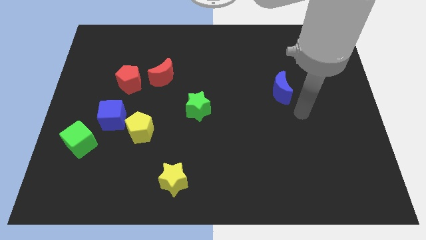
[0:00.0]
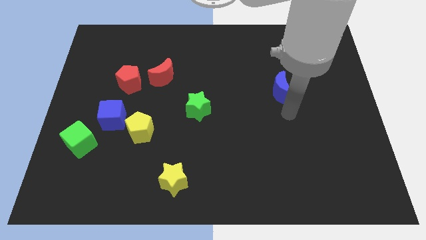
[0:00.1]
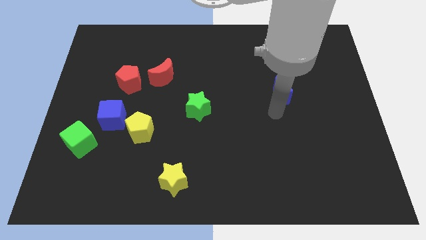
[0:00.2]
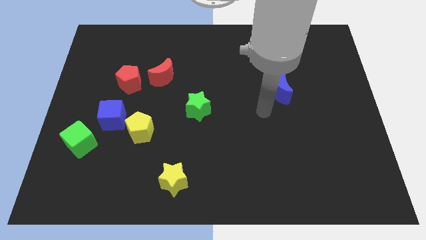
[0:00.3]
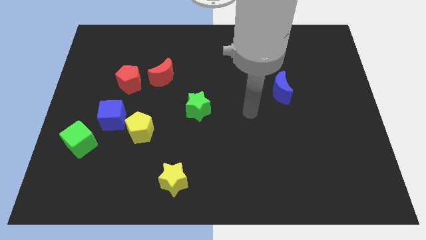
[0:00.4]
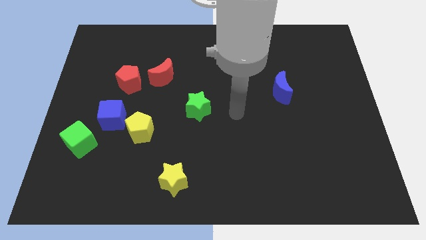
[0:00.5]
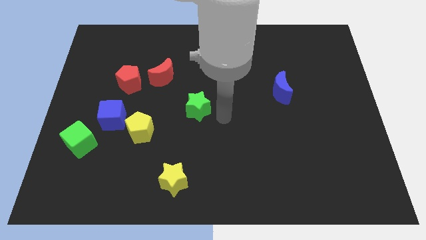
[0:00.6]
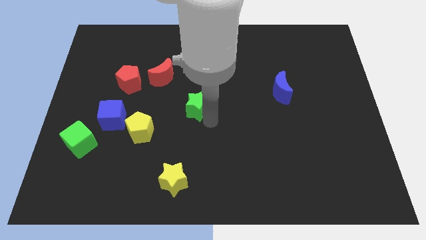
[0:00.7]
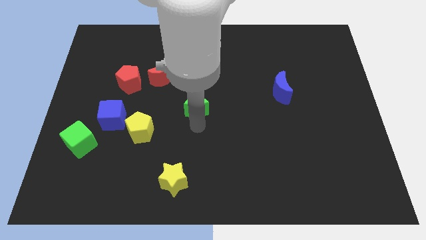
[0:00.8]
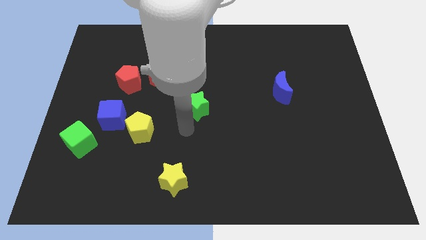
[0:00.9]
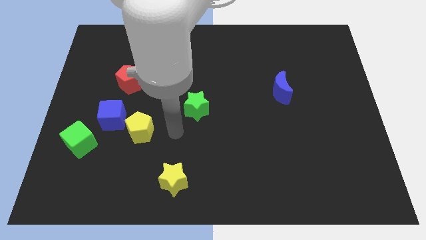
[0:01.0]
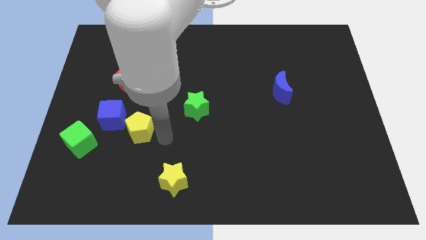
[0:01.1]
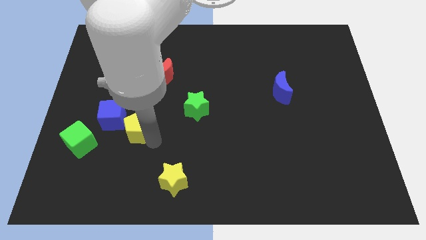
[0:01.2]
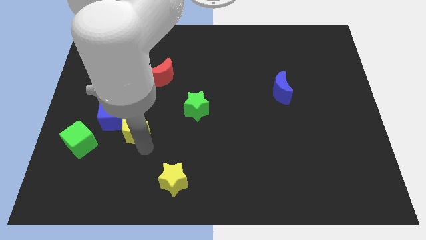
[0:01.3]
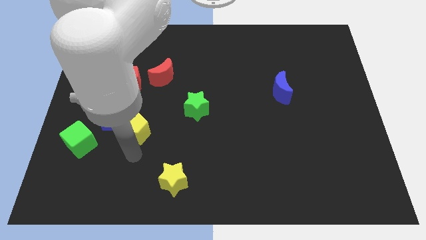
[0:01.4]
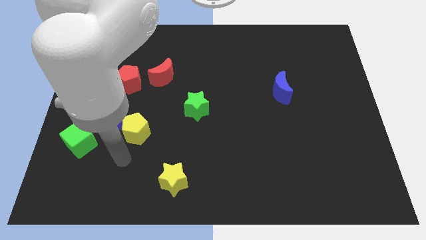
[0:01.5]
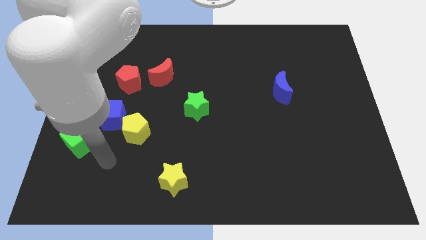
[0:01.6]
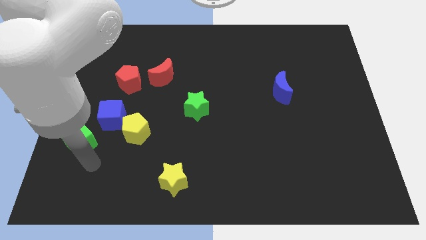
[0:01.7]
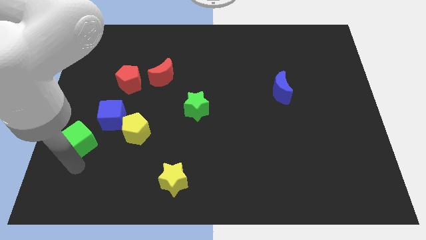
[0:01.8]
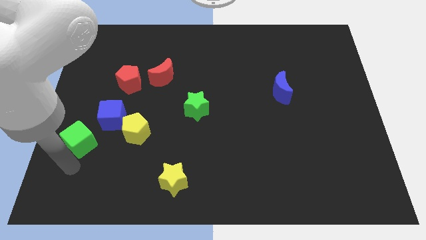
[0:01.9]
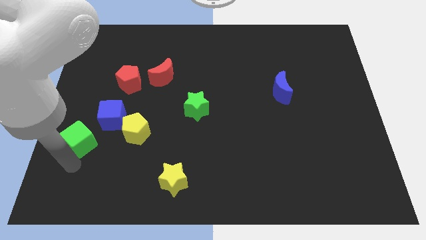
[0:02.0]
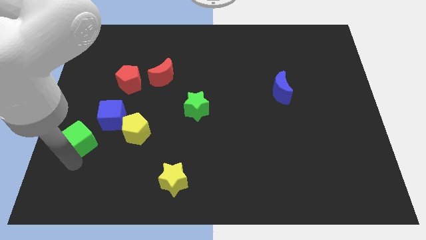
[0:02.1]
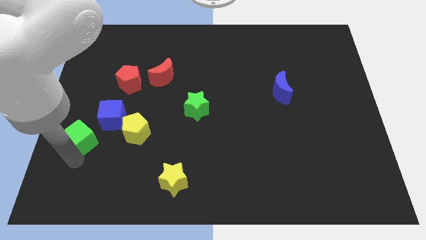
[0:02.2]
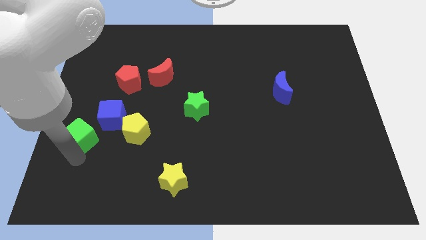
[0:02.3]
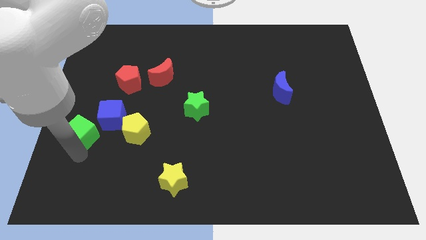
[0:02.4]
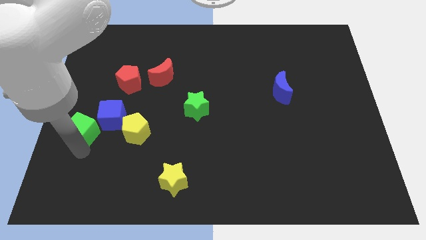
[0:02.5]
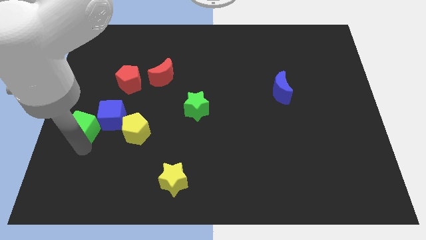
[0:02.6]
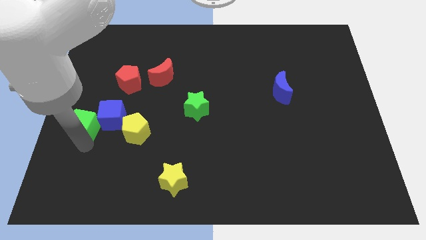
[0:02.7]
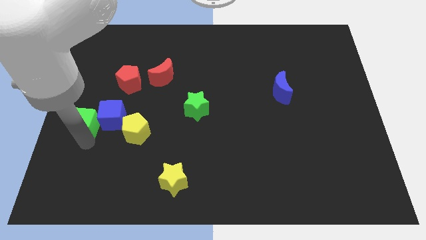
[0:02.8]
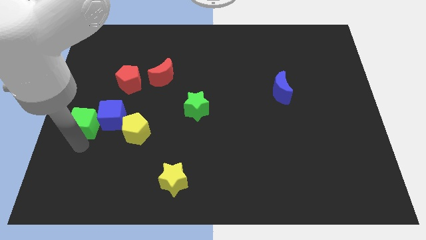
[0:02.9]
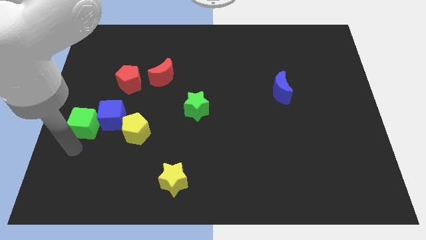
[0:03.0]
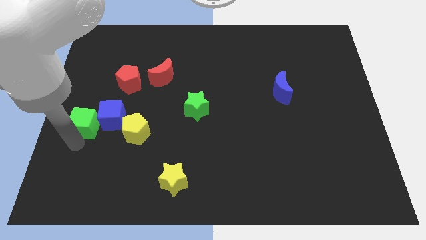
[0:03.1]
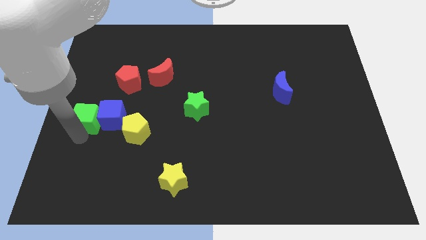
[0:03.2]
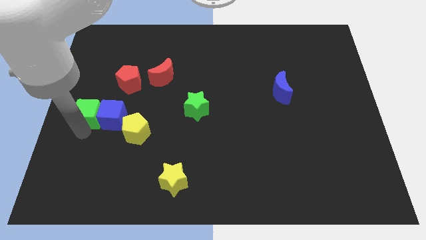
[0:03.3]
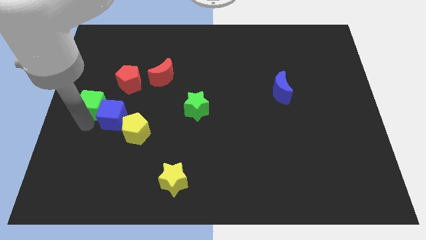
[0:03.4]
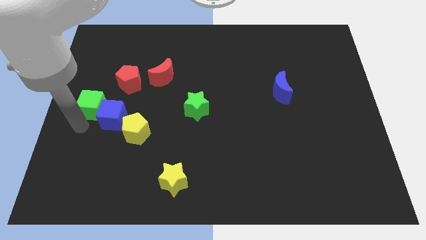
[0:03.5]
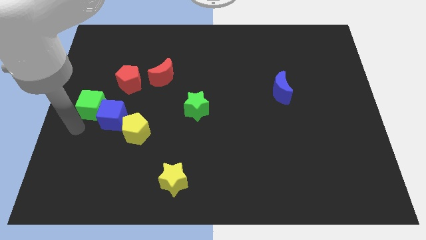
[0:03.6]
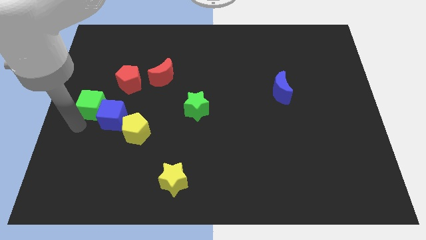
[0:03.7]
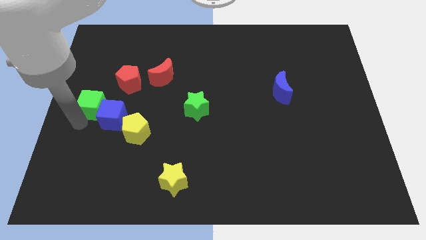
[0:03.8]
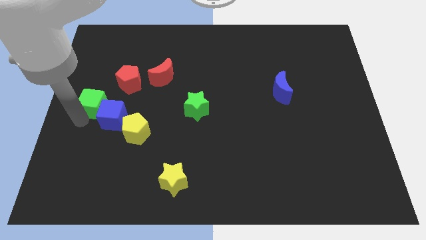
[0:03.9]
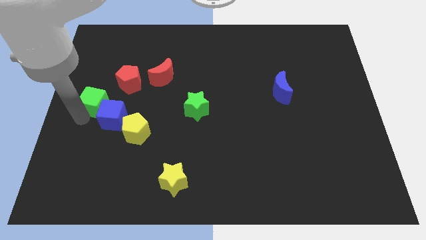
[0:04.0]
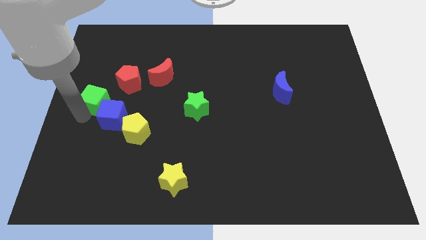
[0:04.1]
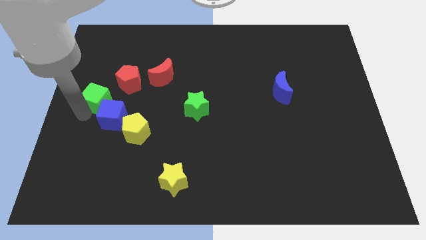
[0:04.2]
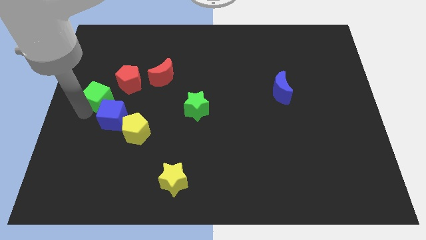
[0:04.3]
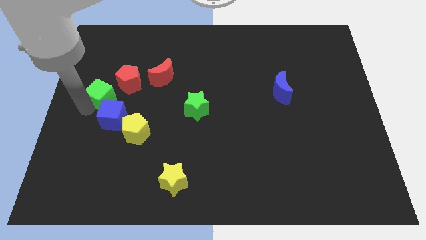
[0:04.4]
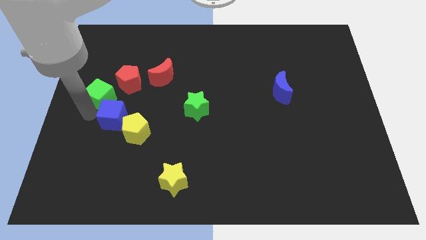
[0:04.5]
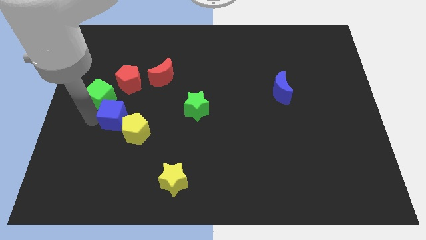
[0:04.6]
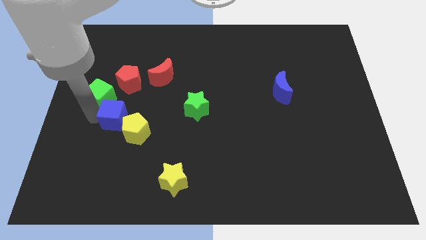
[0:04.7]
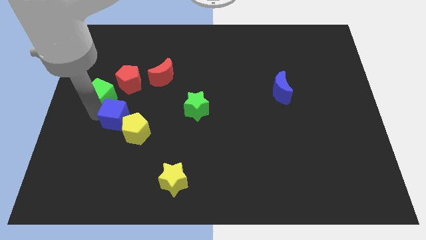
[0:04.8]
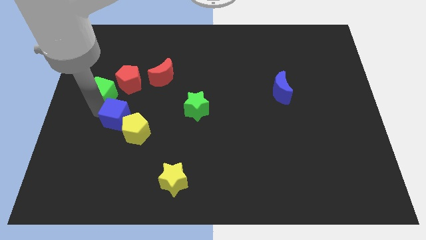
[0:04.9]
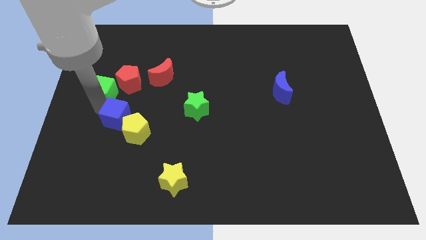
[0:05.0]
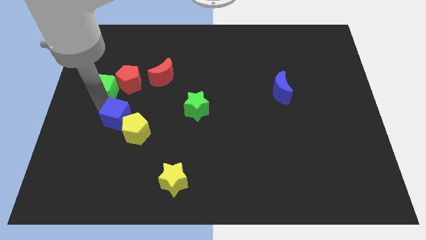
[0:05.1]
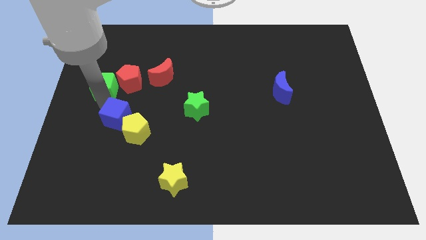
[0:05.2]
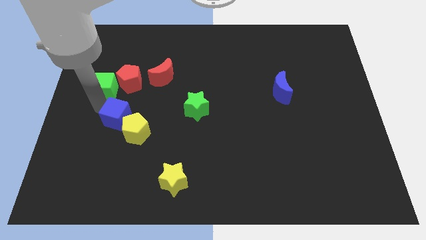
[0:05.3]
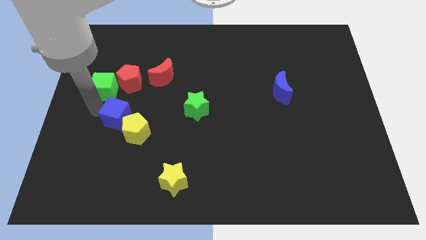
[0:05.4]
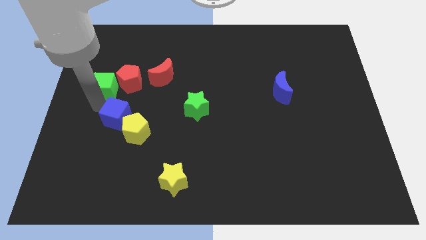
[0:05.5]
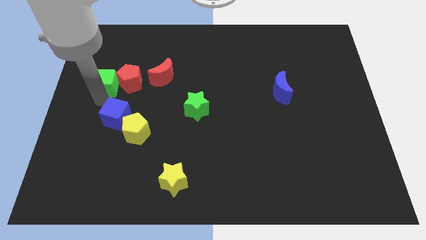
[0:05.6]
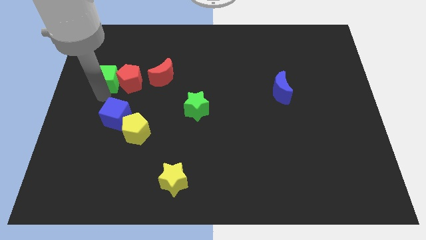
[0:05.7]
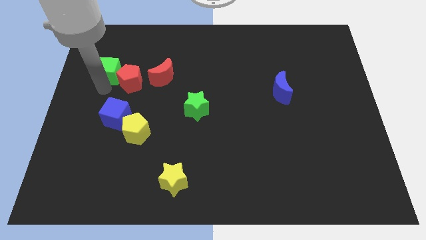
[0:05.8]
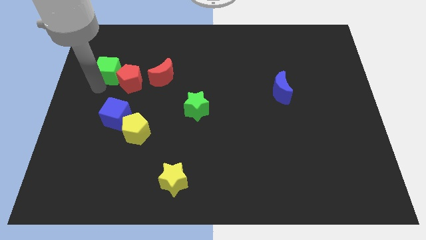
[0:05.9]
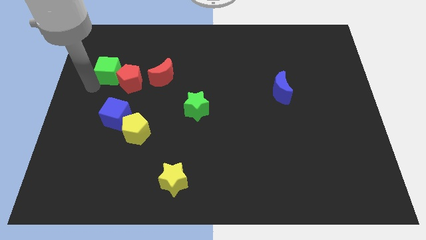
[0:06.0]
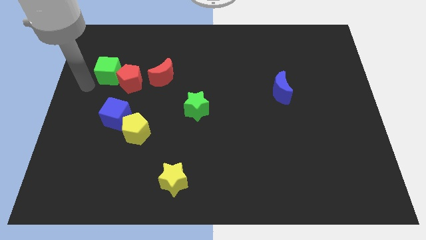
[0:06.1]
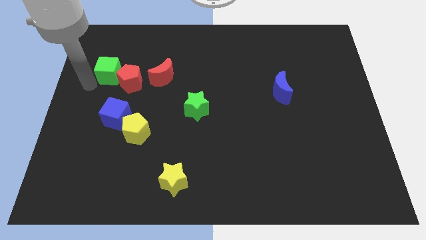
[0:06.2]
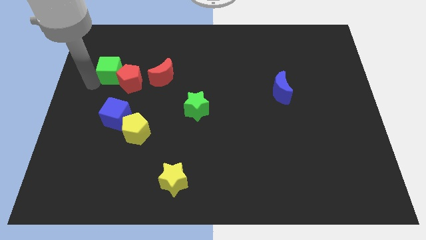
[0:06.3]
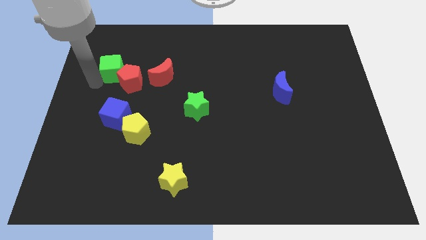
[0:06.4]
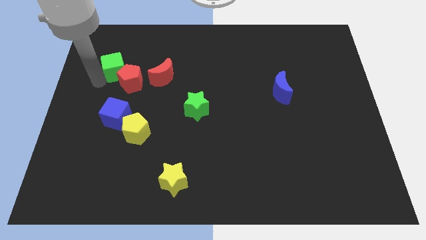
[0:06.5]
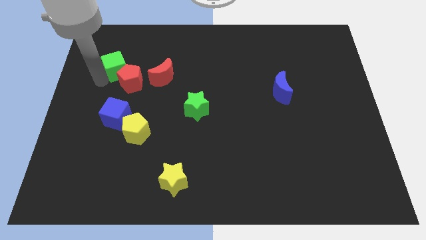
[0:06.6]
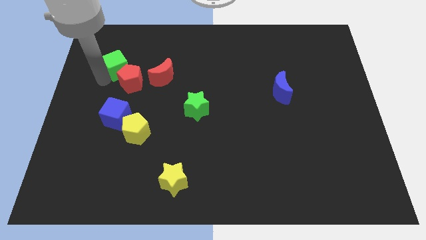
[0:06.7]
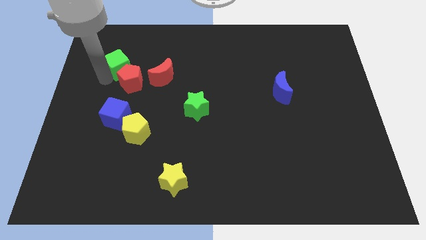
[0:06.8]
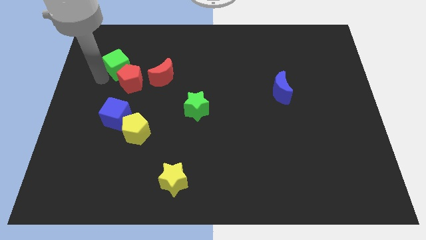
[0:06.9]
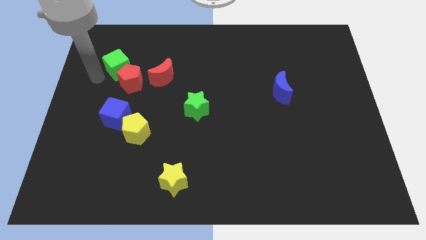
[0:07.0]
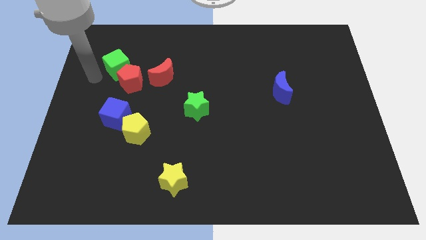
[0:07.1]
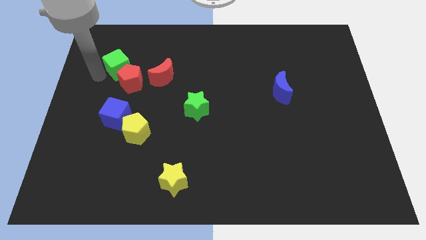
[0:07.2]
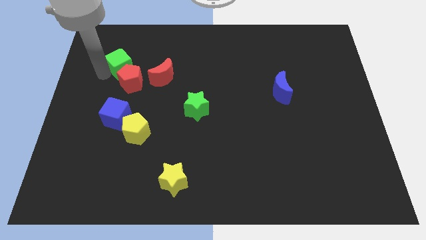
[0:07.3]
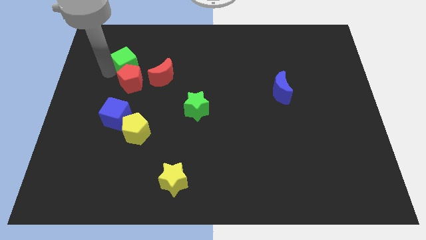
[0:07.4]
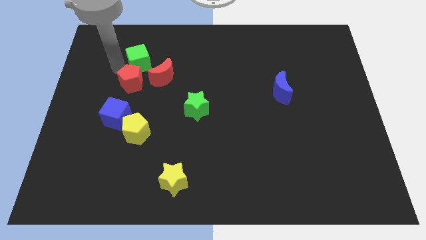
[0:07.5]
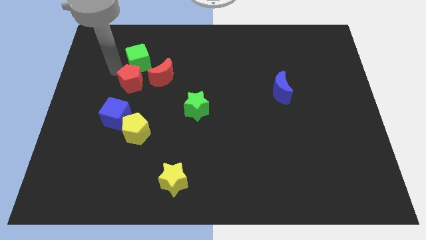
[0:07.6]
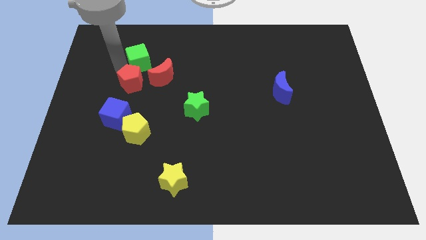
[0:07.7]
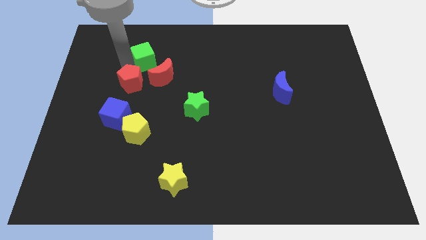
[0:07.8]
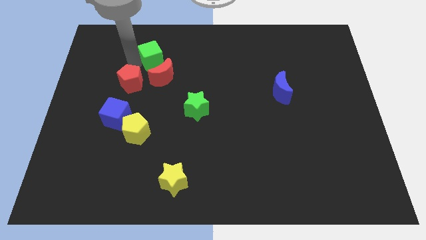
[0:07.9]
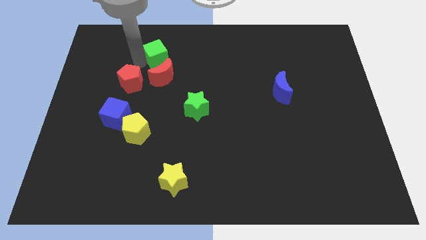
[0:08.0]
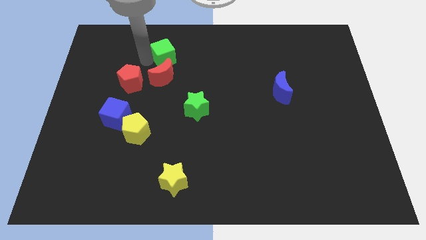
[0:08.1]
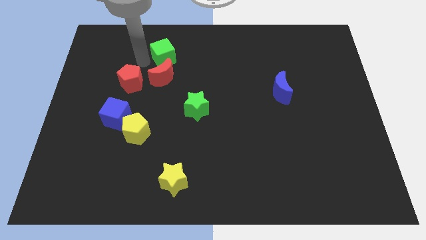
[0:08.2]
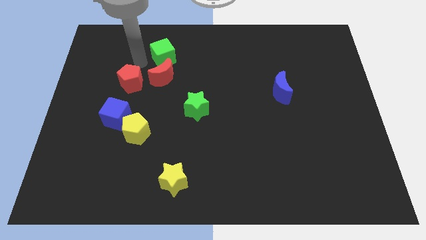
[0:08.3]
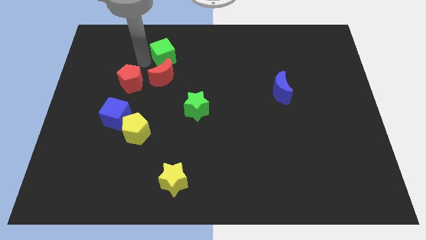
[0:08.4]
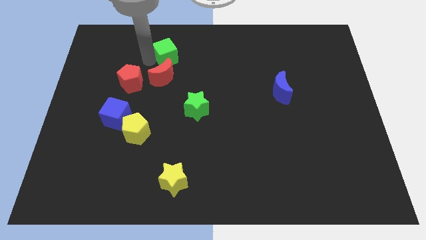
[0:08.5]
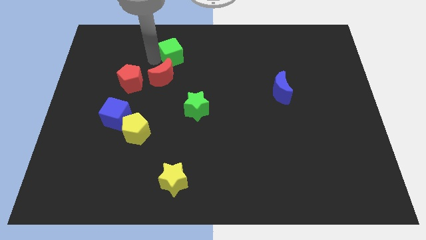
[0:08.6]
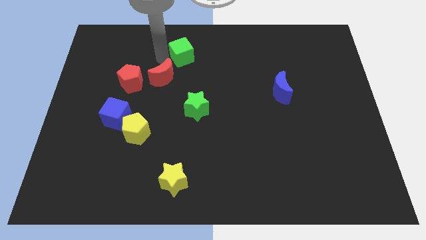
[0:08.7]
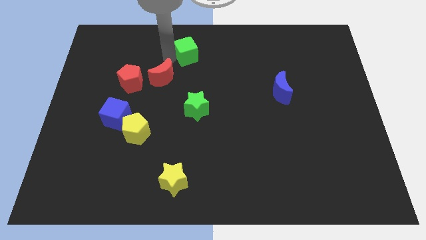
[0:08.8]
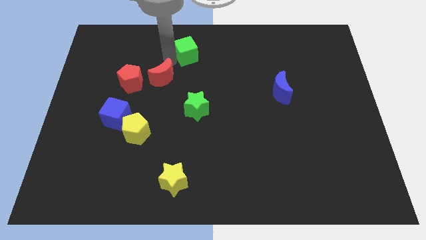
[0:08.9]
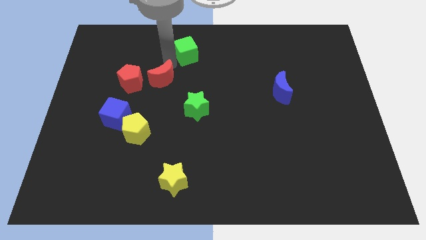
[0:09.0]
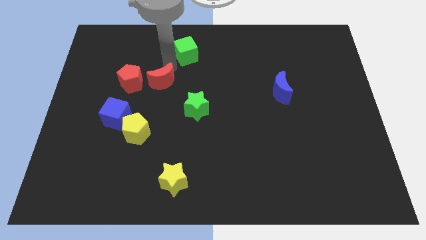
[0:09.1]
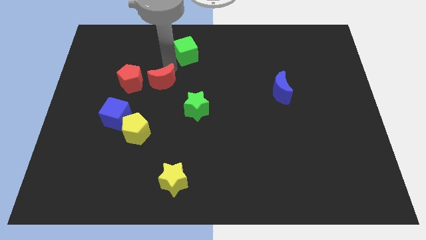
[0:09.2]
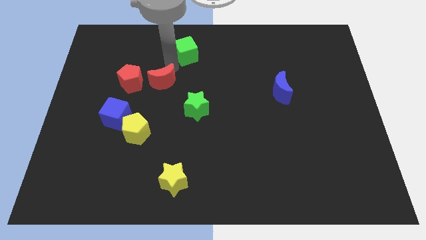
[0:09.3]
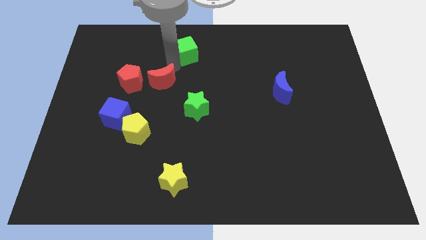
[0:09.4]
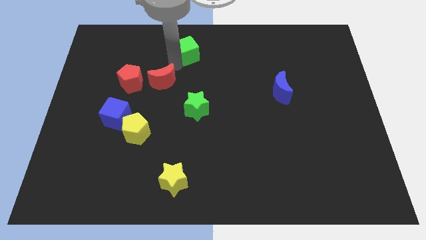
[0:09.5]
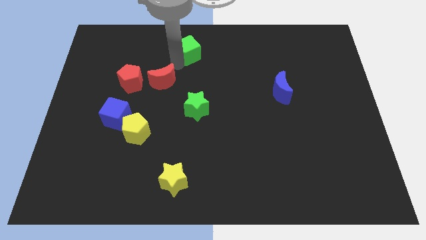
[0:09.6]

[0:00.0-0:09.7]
move the green cube to the top side
